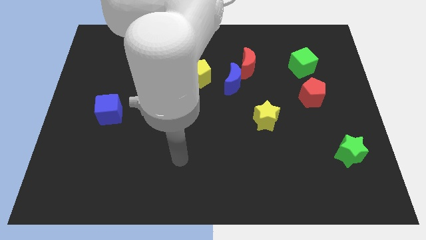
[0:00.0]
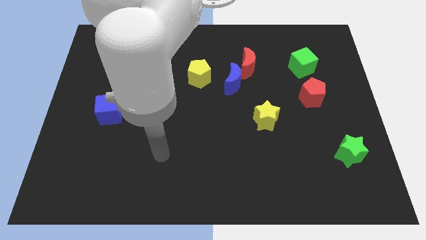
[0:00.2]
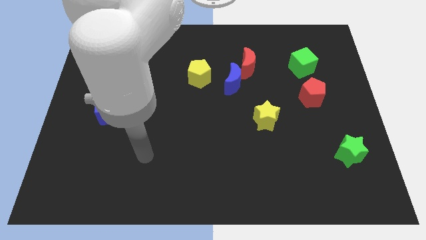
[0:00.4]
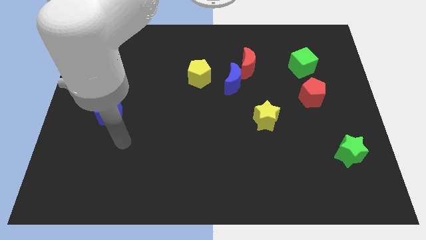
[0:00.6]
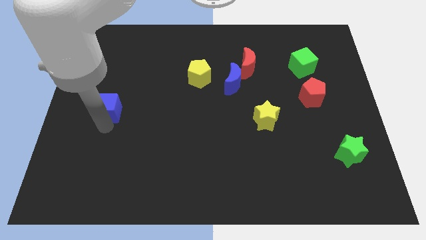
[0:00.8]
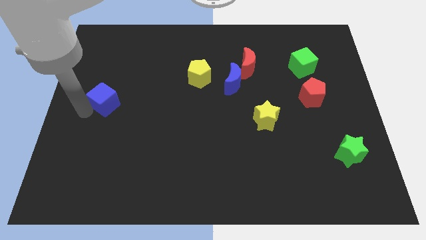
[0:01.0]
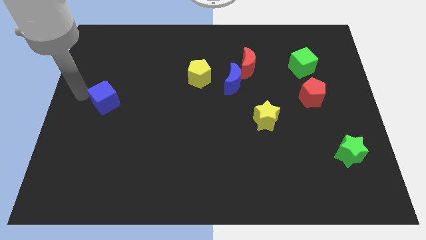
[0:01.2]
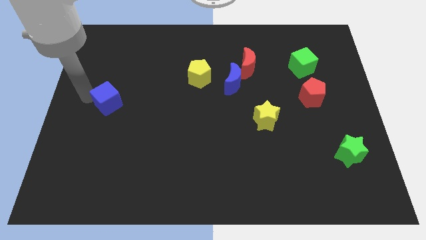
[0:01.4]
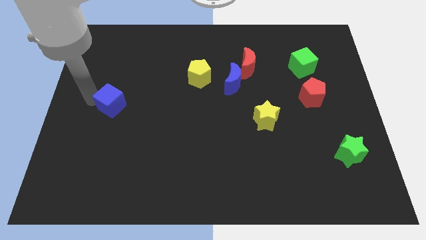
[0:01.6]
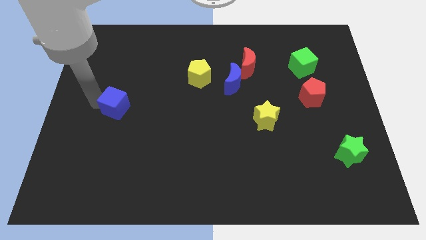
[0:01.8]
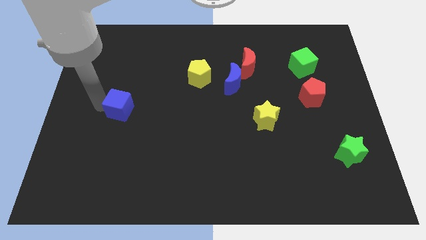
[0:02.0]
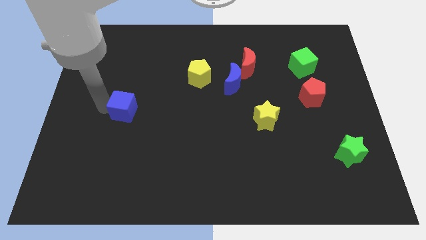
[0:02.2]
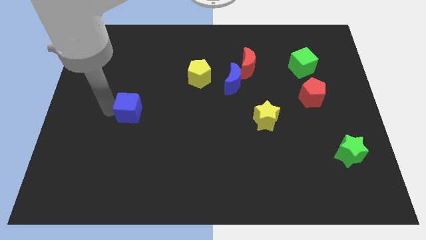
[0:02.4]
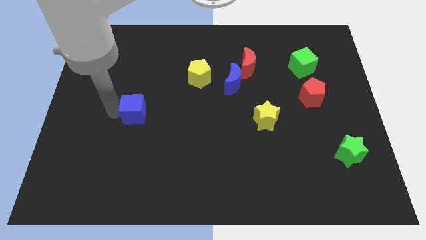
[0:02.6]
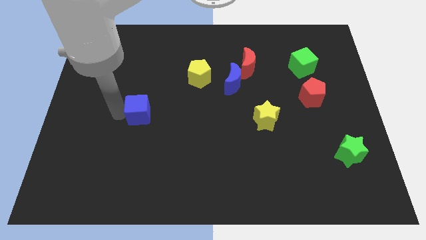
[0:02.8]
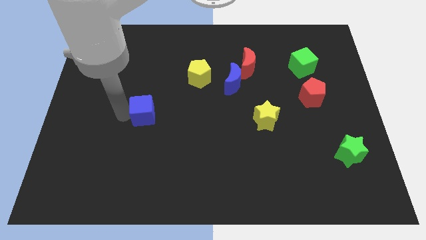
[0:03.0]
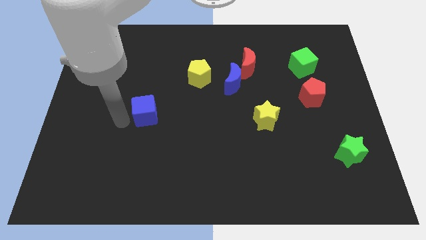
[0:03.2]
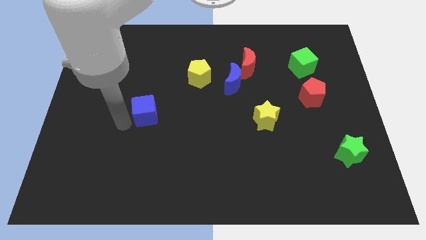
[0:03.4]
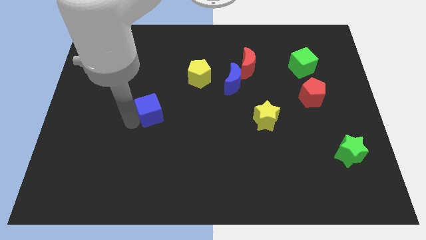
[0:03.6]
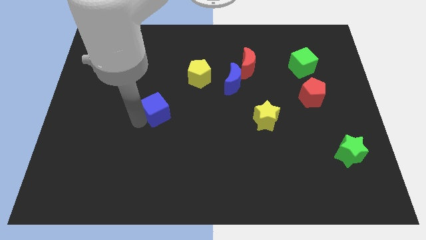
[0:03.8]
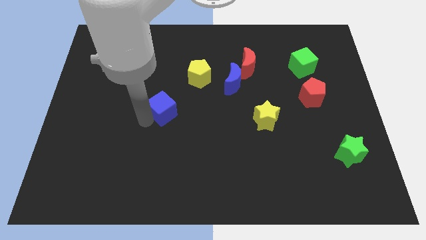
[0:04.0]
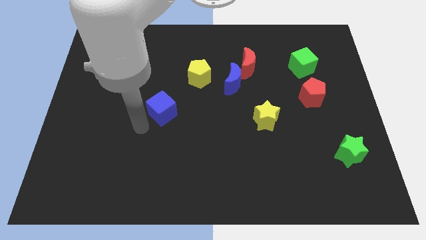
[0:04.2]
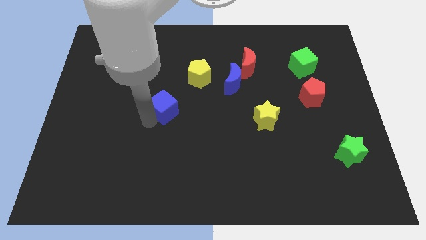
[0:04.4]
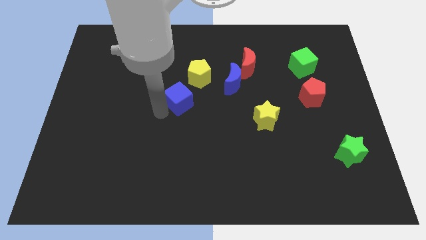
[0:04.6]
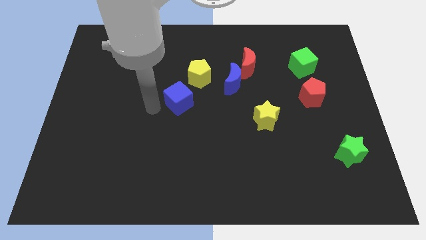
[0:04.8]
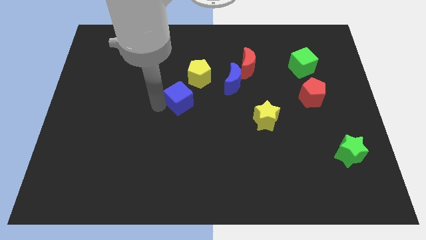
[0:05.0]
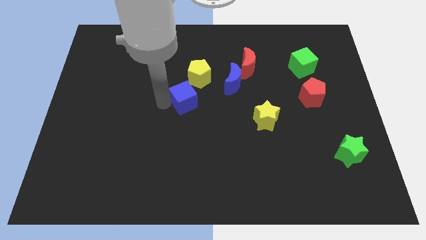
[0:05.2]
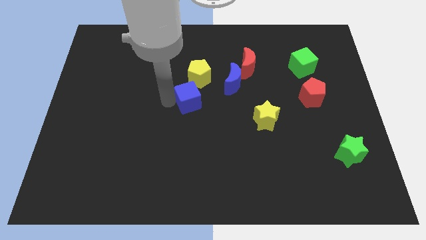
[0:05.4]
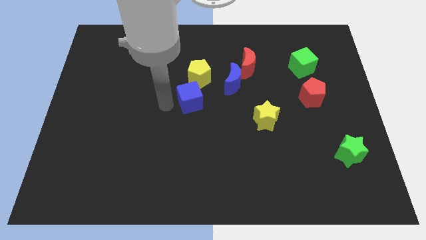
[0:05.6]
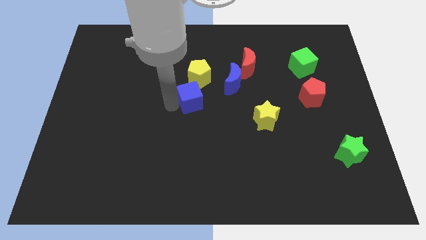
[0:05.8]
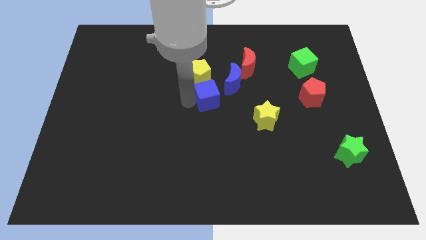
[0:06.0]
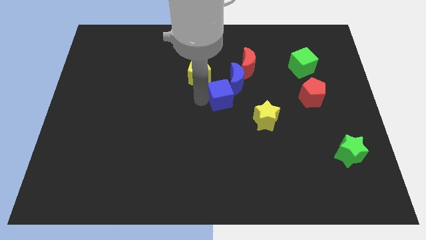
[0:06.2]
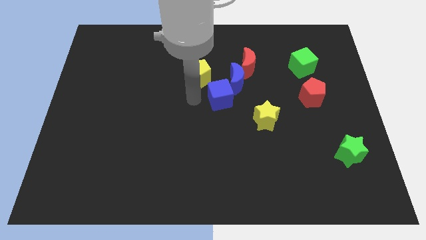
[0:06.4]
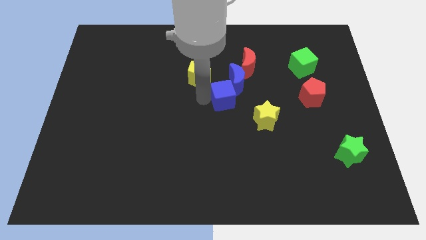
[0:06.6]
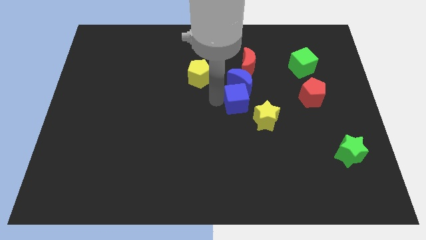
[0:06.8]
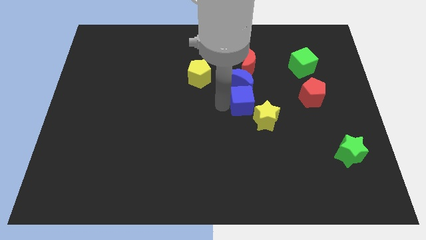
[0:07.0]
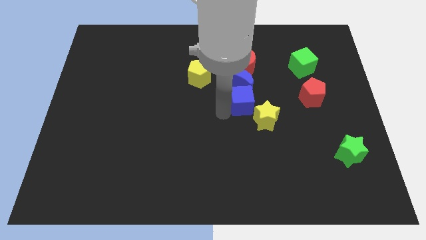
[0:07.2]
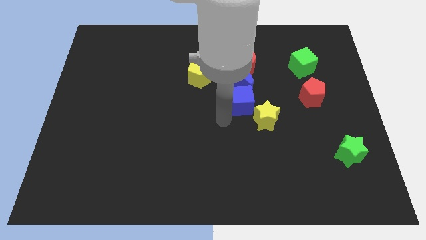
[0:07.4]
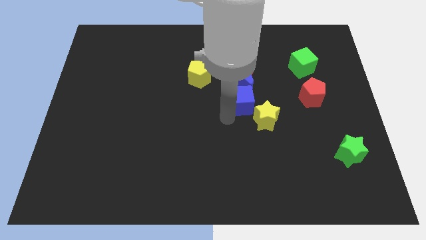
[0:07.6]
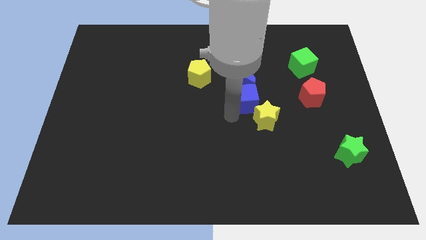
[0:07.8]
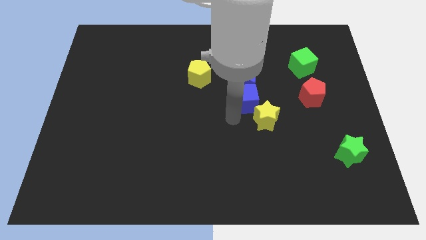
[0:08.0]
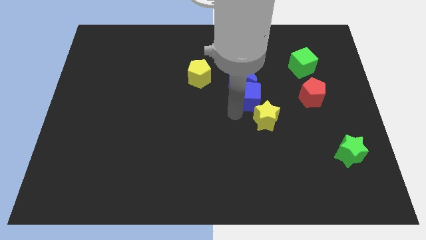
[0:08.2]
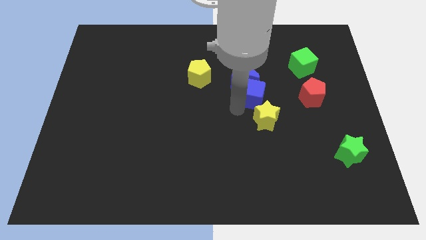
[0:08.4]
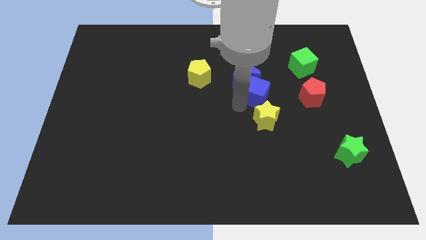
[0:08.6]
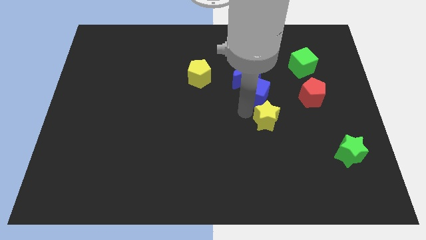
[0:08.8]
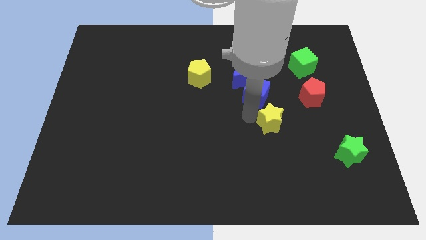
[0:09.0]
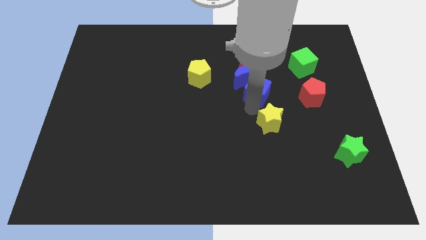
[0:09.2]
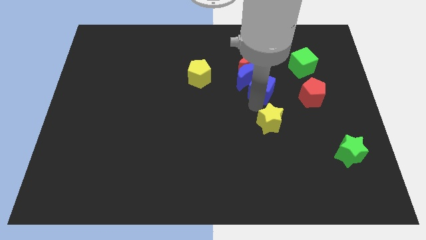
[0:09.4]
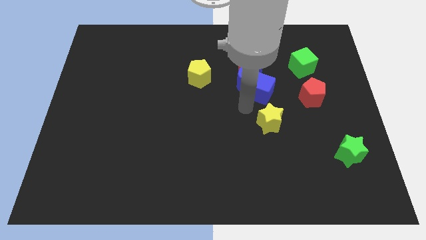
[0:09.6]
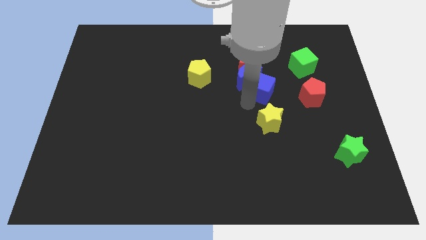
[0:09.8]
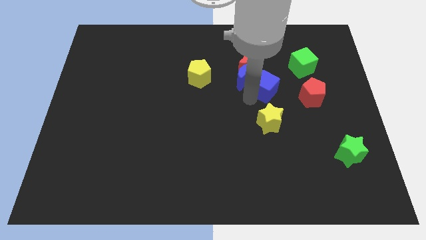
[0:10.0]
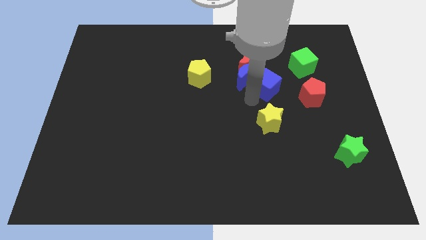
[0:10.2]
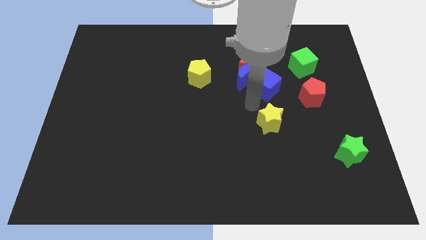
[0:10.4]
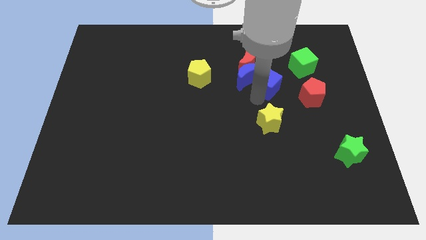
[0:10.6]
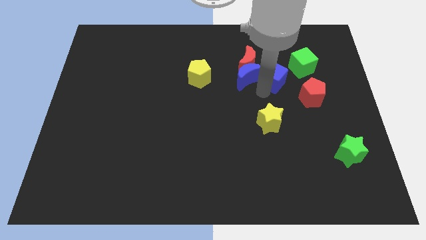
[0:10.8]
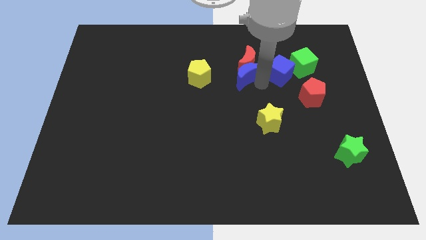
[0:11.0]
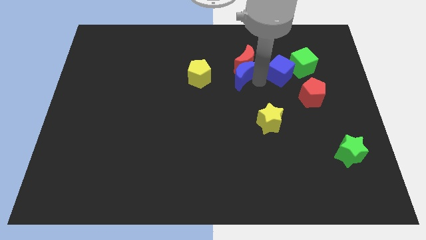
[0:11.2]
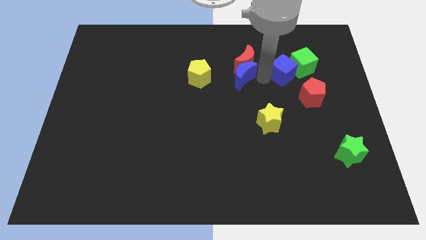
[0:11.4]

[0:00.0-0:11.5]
push the blue cube towards the green cube

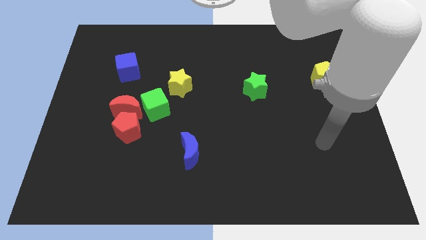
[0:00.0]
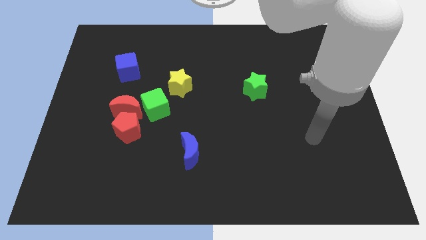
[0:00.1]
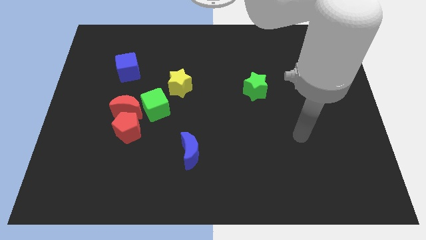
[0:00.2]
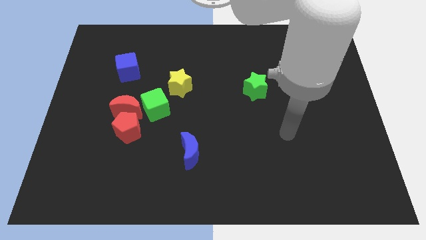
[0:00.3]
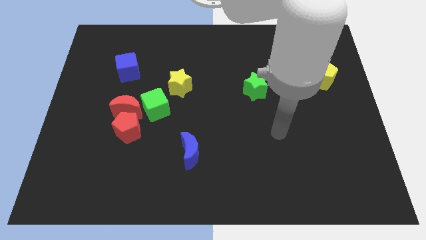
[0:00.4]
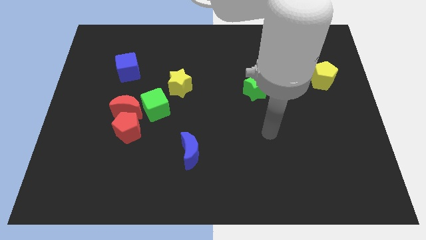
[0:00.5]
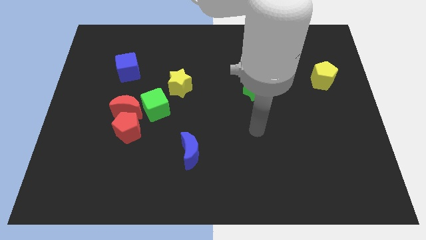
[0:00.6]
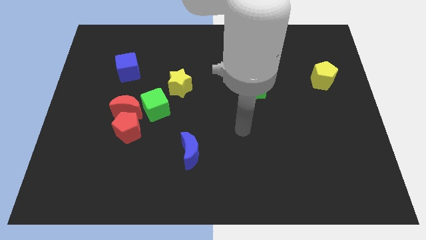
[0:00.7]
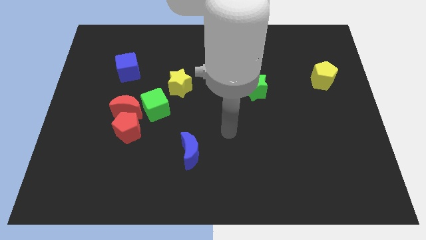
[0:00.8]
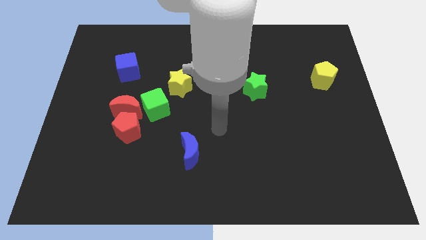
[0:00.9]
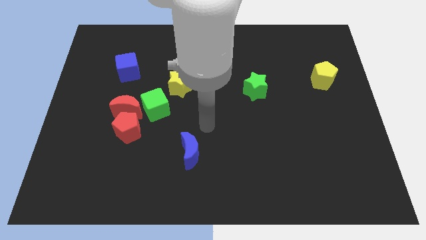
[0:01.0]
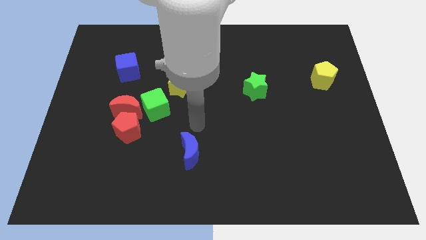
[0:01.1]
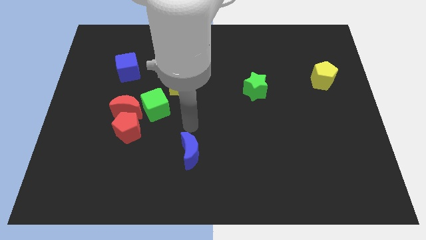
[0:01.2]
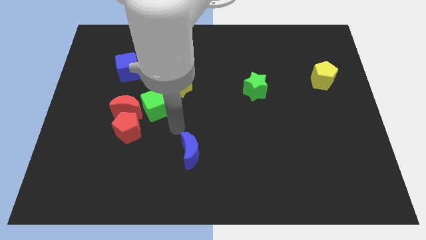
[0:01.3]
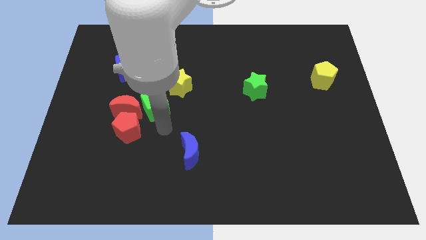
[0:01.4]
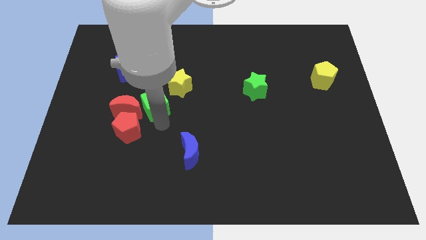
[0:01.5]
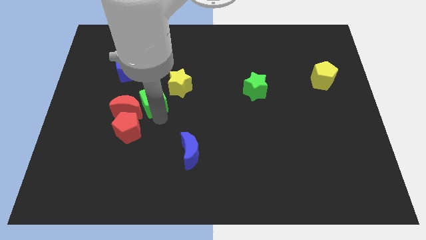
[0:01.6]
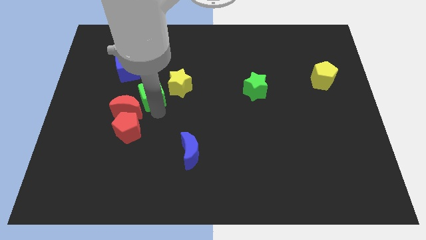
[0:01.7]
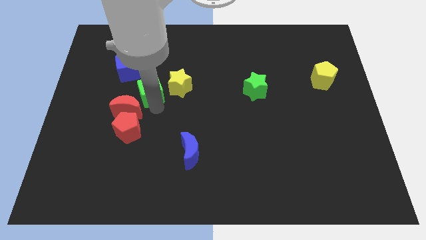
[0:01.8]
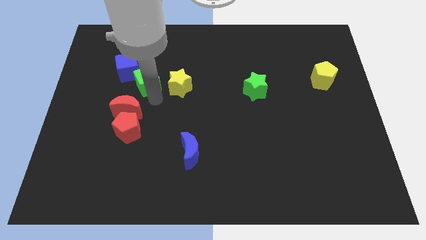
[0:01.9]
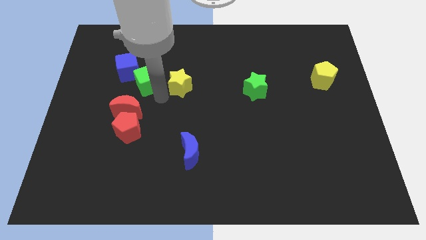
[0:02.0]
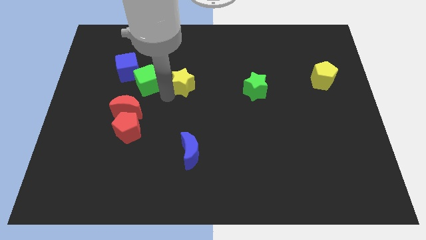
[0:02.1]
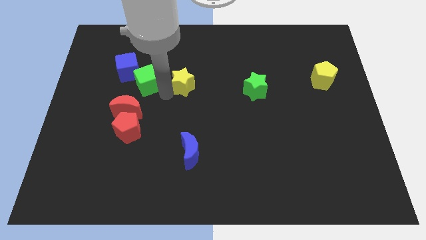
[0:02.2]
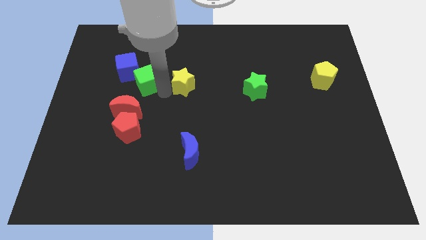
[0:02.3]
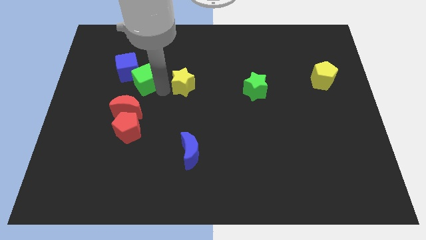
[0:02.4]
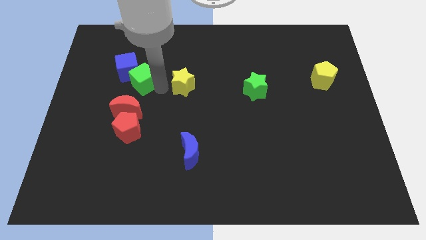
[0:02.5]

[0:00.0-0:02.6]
slide the green cube to the blue cube
